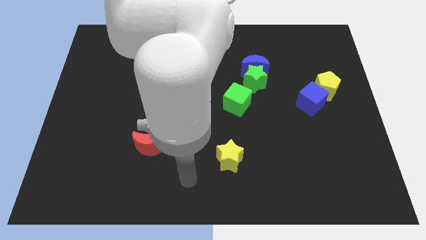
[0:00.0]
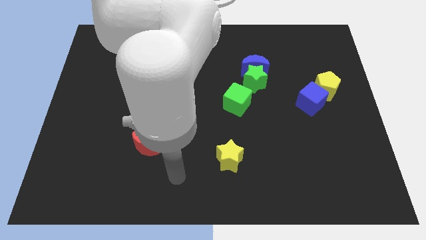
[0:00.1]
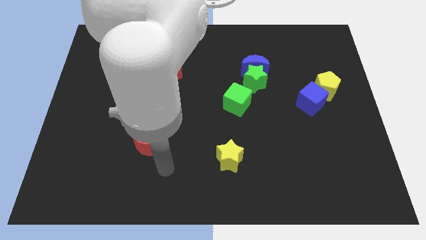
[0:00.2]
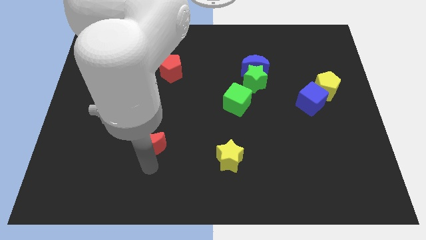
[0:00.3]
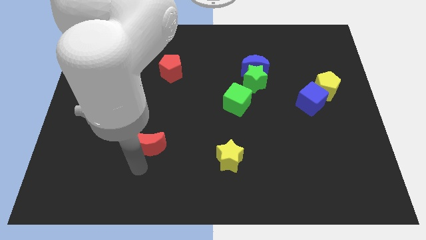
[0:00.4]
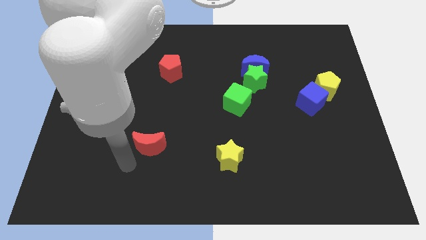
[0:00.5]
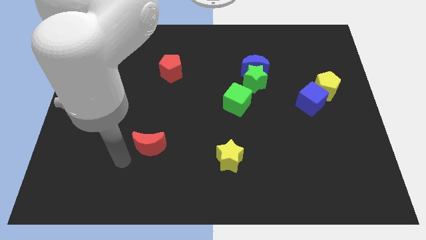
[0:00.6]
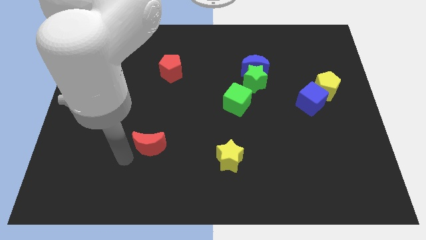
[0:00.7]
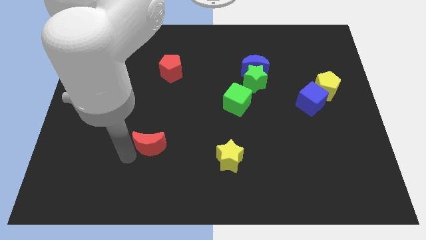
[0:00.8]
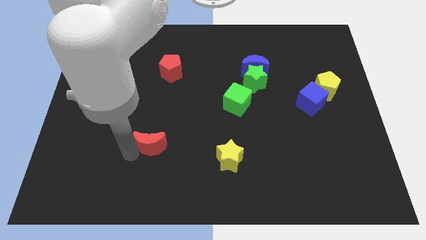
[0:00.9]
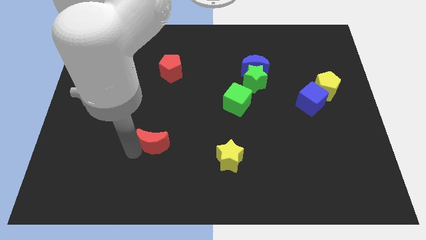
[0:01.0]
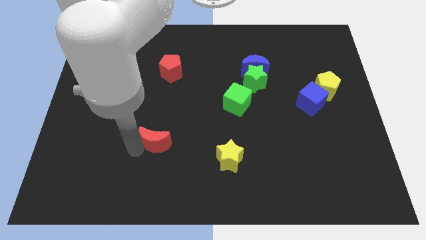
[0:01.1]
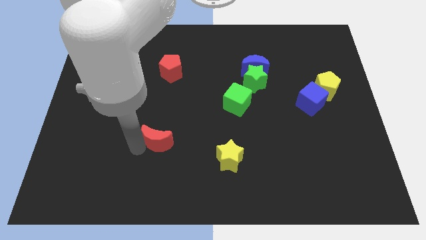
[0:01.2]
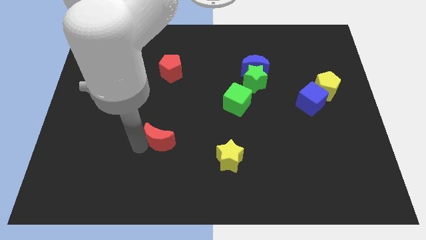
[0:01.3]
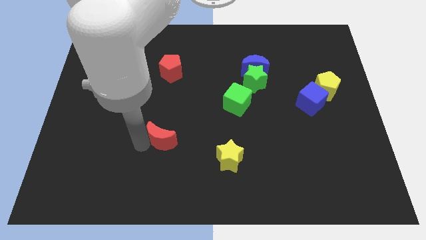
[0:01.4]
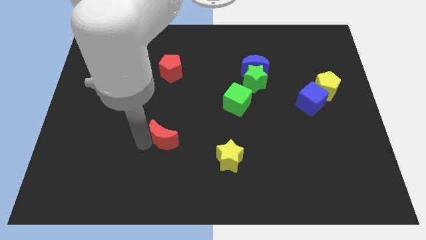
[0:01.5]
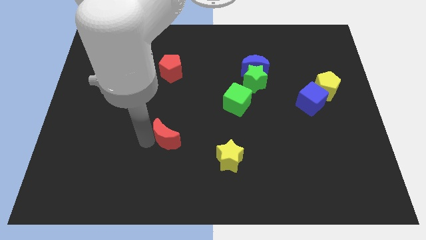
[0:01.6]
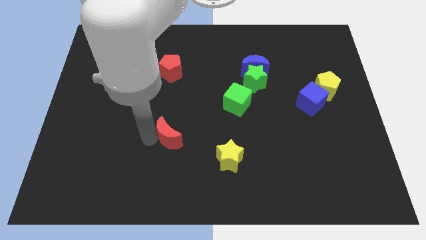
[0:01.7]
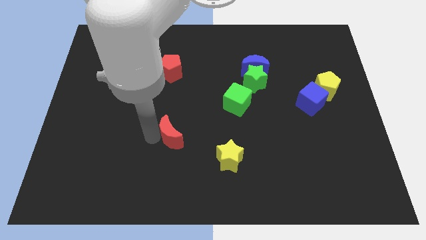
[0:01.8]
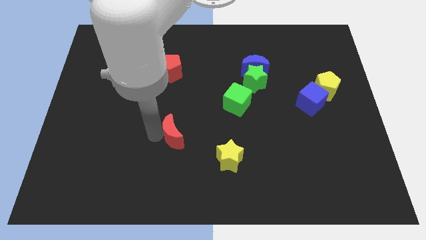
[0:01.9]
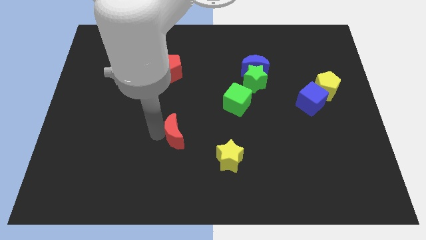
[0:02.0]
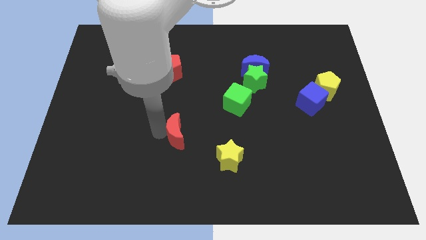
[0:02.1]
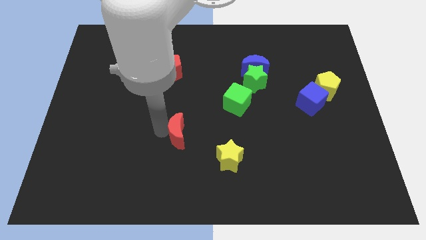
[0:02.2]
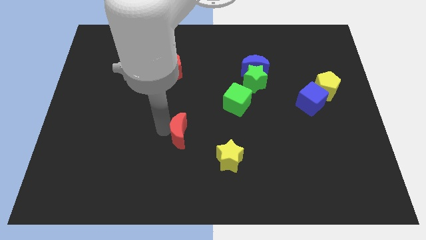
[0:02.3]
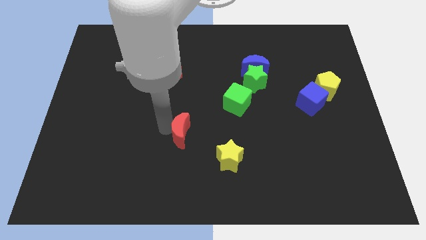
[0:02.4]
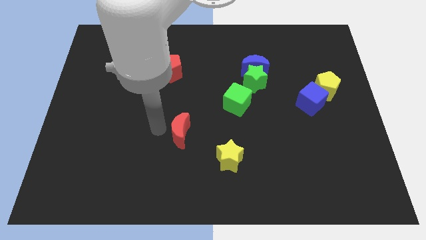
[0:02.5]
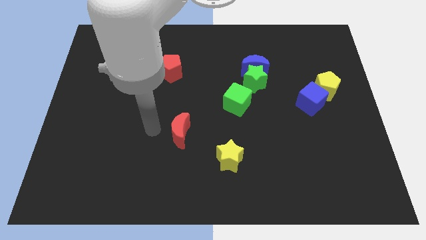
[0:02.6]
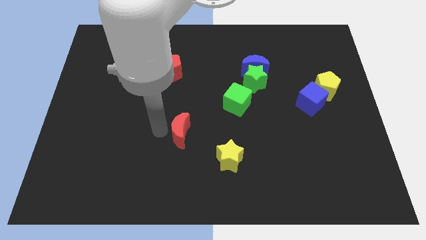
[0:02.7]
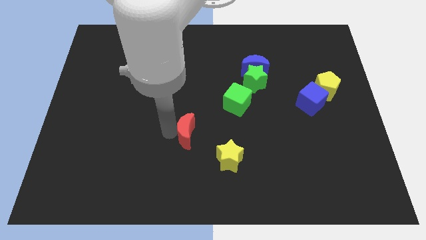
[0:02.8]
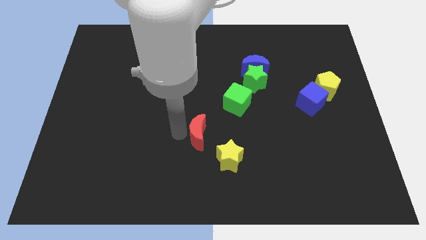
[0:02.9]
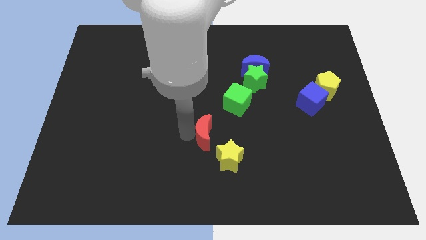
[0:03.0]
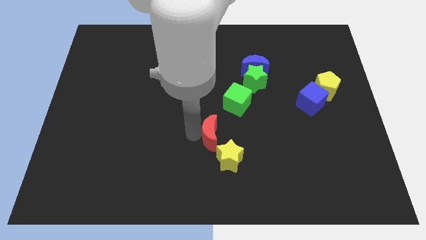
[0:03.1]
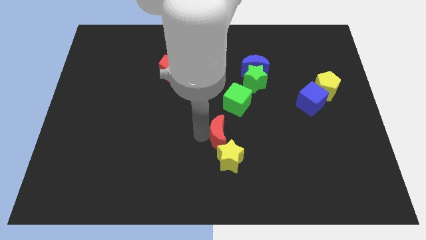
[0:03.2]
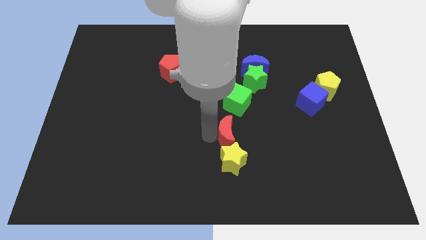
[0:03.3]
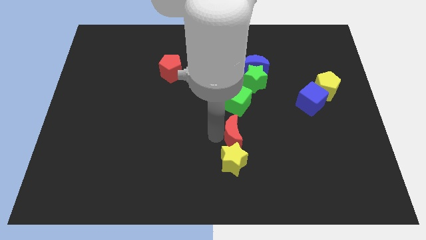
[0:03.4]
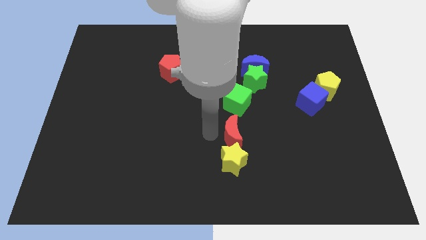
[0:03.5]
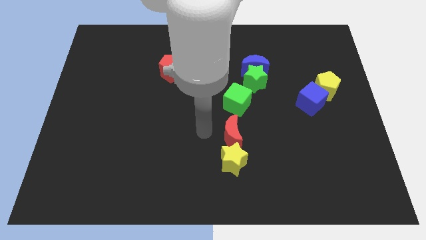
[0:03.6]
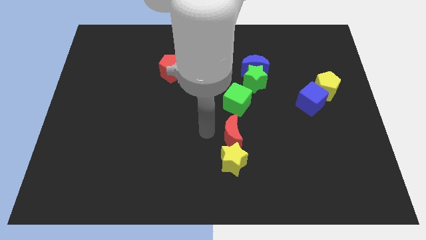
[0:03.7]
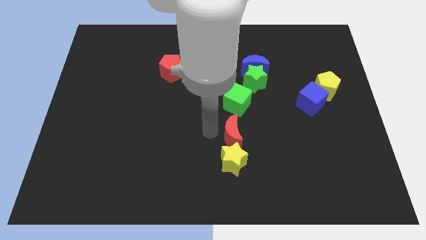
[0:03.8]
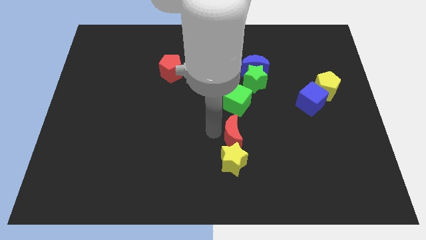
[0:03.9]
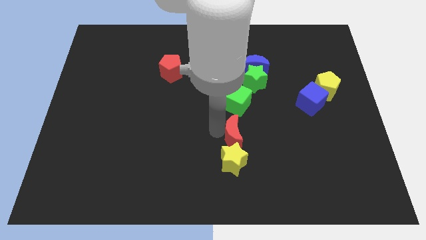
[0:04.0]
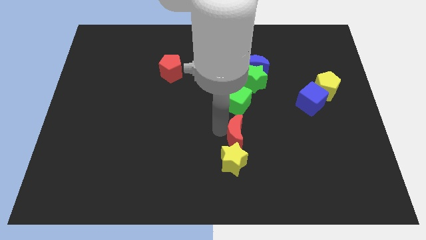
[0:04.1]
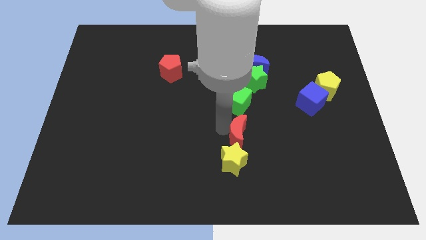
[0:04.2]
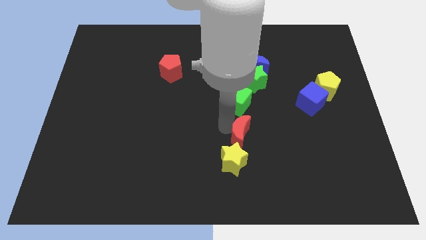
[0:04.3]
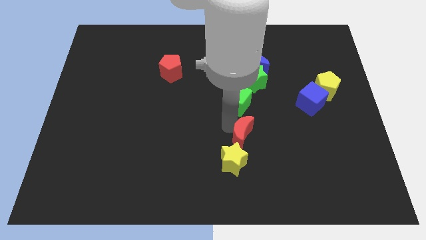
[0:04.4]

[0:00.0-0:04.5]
move the red moon to the right

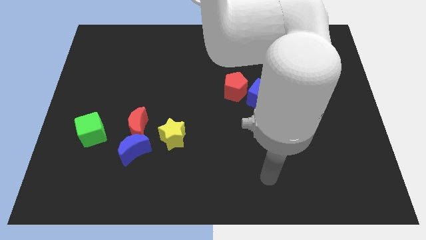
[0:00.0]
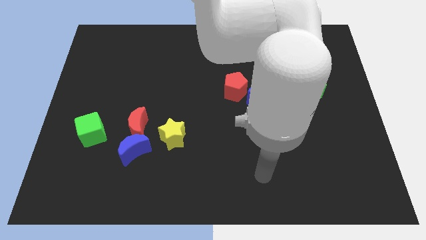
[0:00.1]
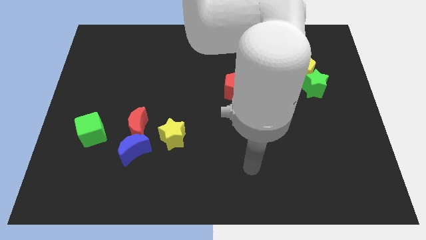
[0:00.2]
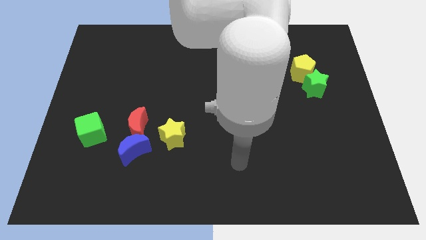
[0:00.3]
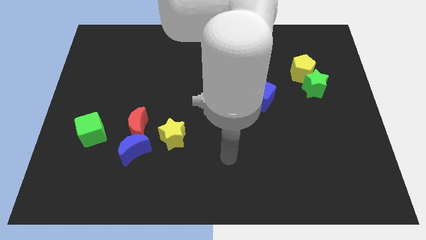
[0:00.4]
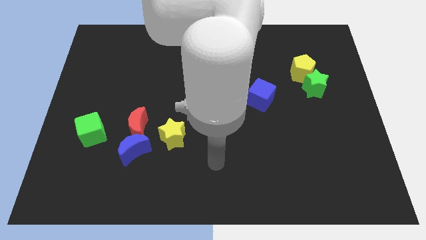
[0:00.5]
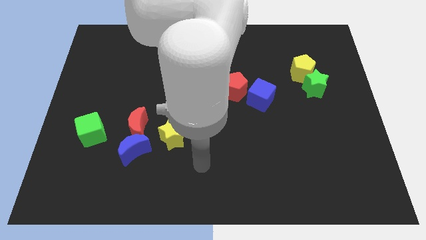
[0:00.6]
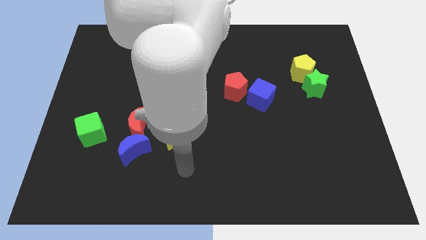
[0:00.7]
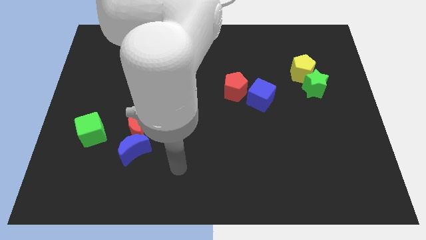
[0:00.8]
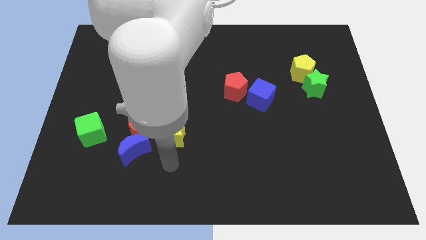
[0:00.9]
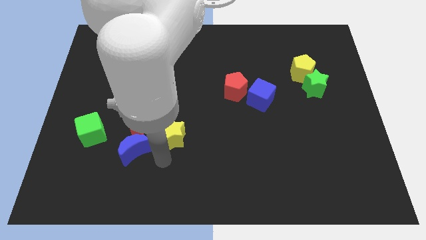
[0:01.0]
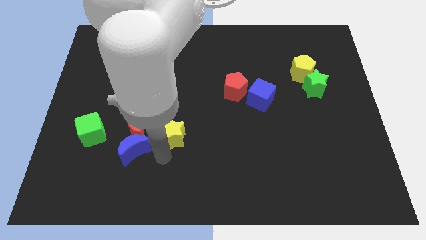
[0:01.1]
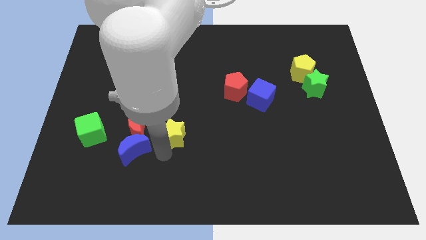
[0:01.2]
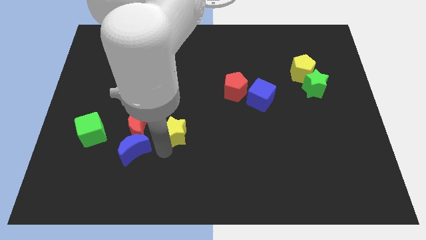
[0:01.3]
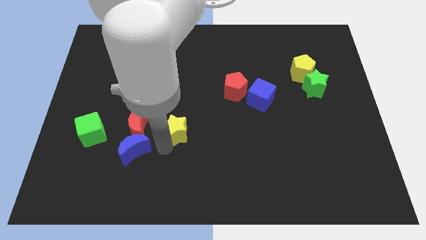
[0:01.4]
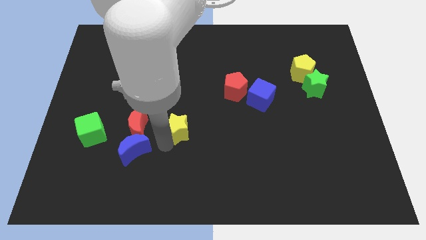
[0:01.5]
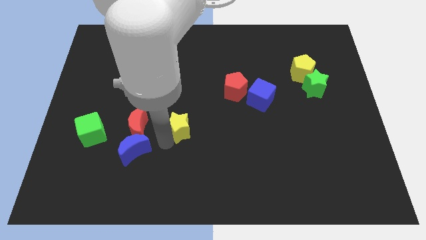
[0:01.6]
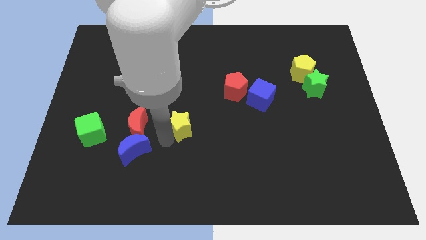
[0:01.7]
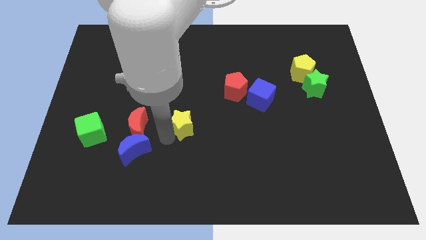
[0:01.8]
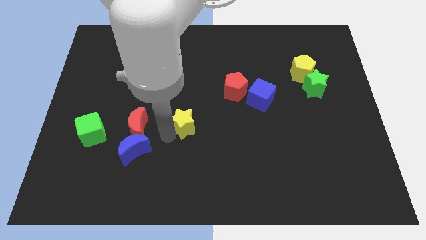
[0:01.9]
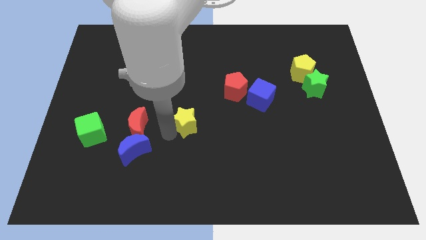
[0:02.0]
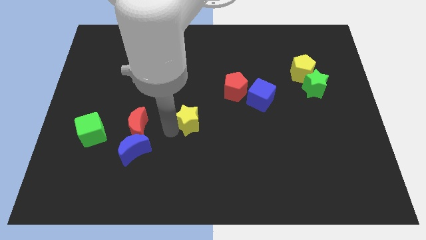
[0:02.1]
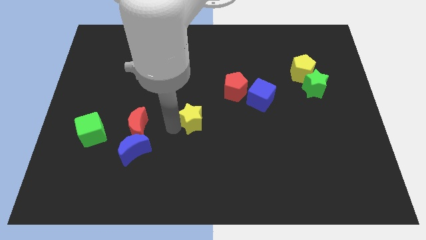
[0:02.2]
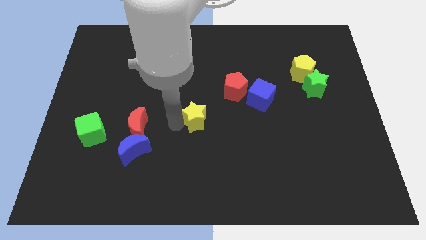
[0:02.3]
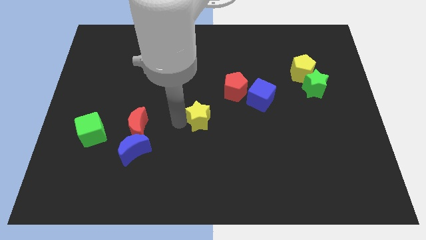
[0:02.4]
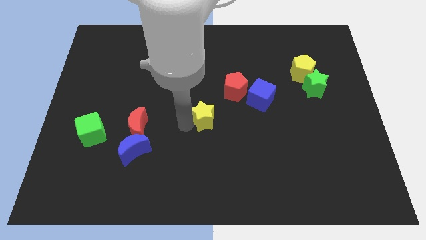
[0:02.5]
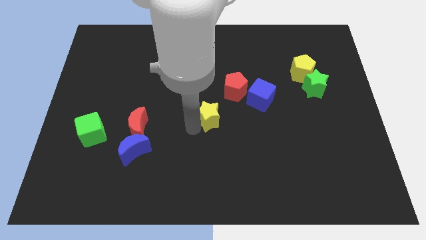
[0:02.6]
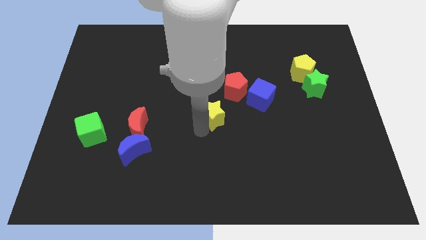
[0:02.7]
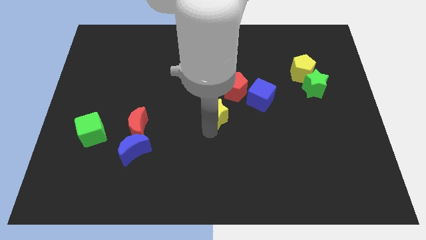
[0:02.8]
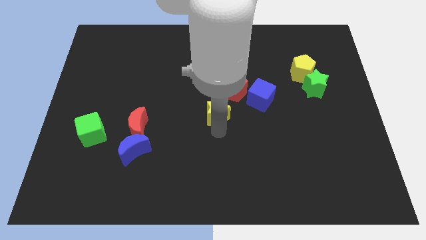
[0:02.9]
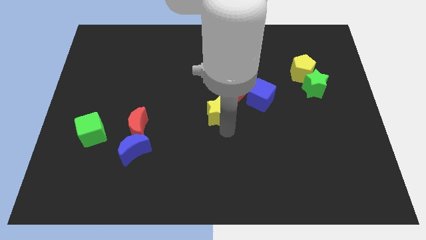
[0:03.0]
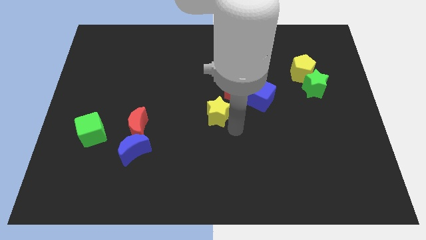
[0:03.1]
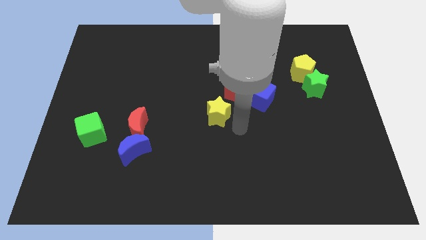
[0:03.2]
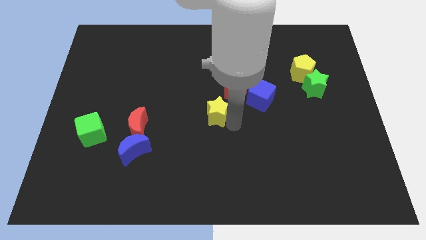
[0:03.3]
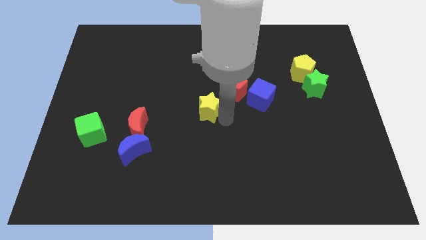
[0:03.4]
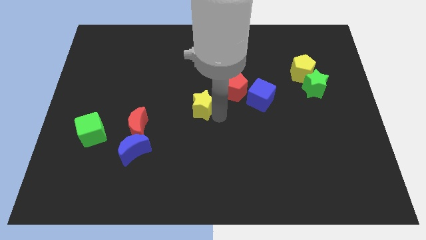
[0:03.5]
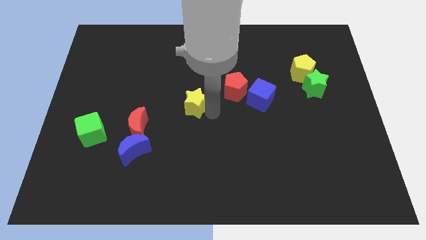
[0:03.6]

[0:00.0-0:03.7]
push the yellow star somewhat up
